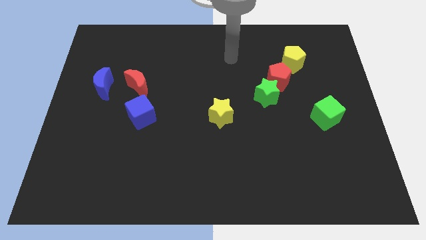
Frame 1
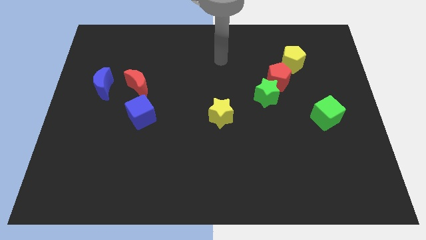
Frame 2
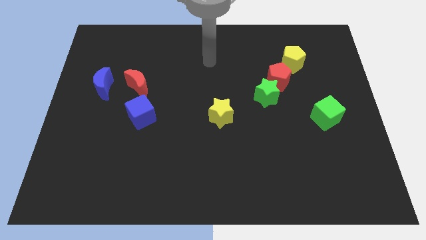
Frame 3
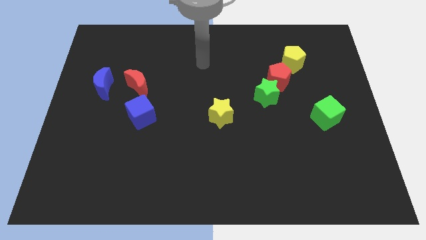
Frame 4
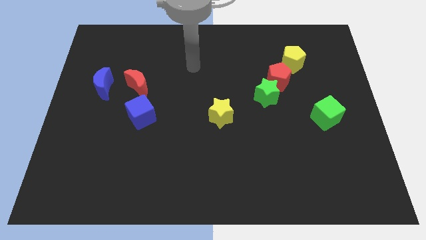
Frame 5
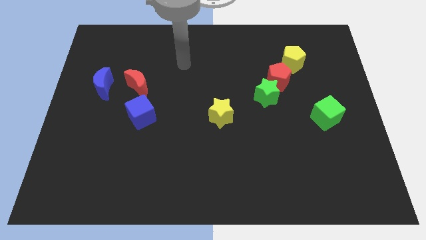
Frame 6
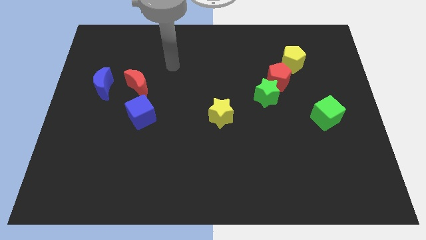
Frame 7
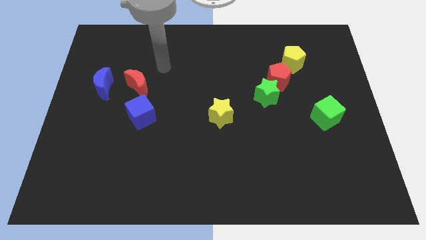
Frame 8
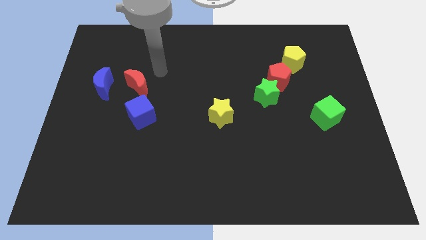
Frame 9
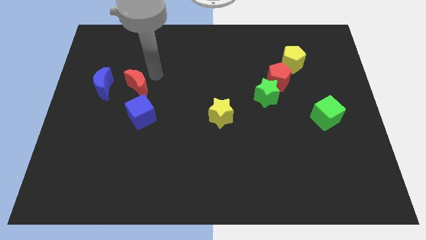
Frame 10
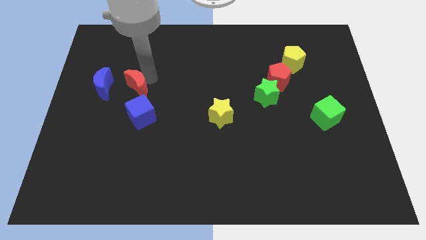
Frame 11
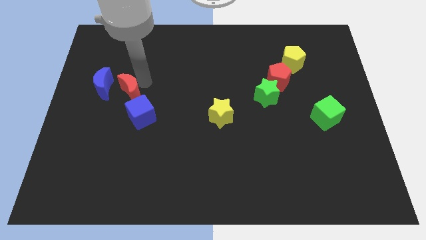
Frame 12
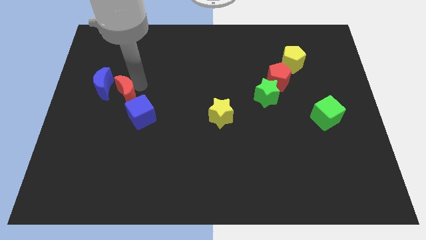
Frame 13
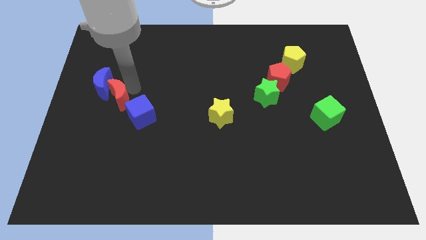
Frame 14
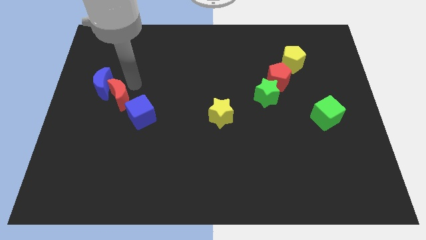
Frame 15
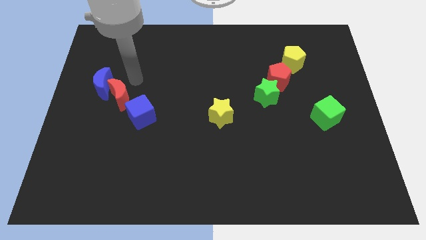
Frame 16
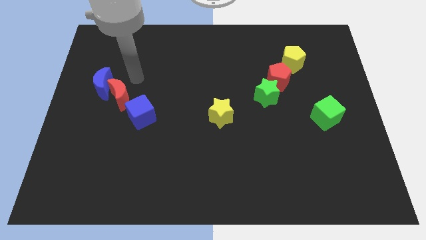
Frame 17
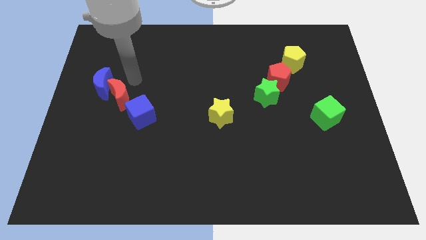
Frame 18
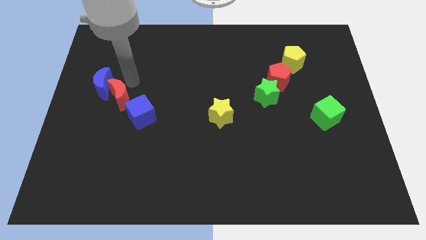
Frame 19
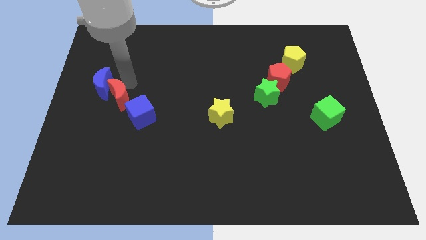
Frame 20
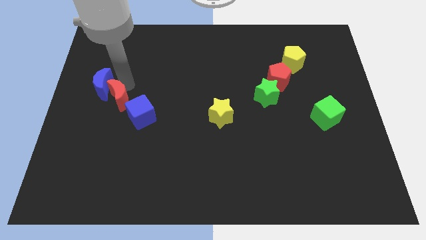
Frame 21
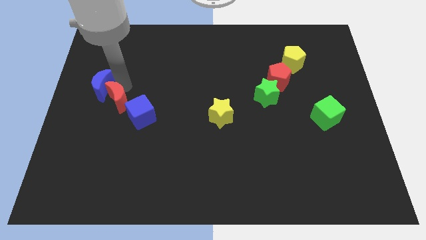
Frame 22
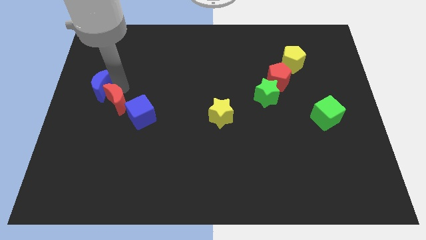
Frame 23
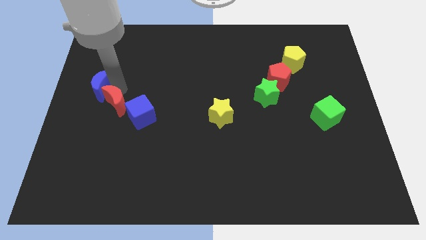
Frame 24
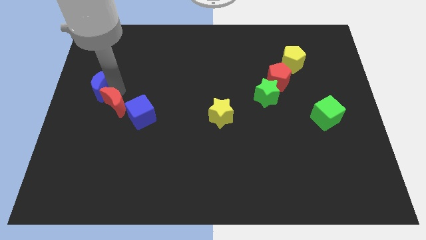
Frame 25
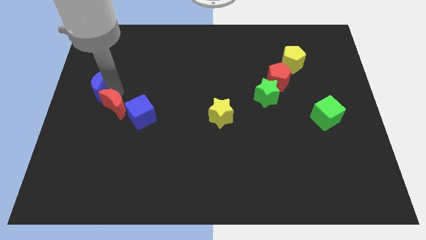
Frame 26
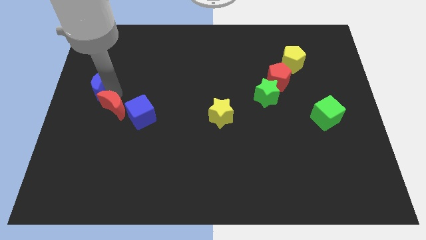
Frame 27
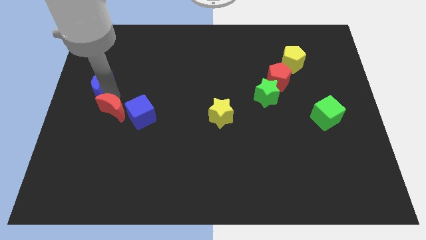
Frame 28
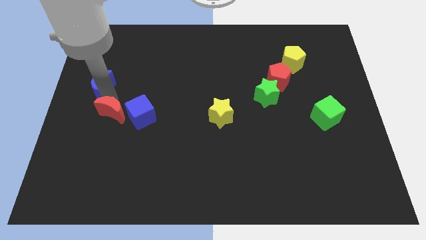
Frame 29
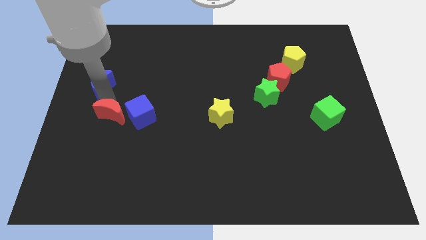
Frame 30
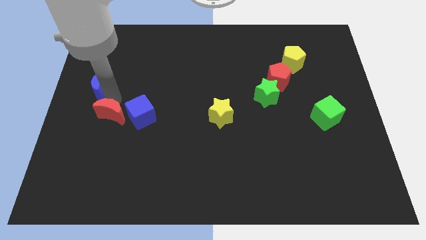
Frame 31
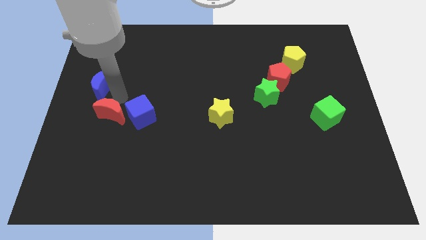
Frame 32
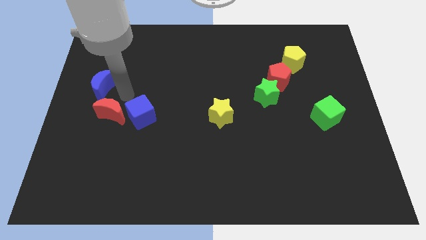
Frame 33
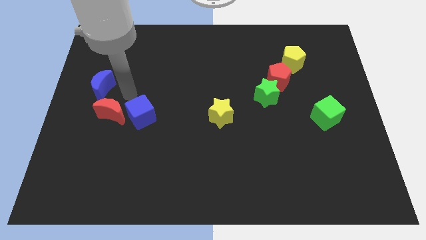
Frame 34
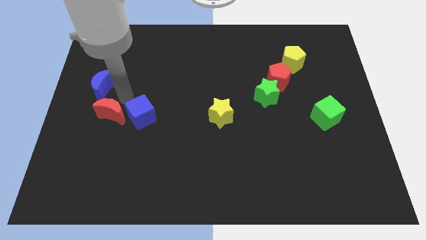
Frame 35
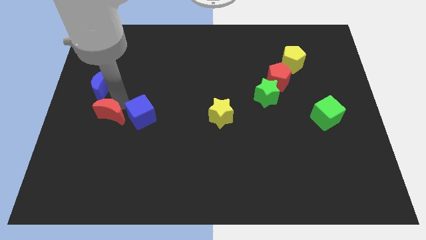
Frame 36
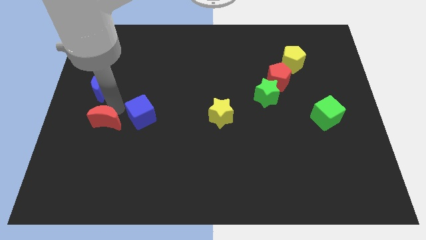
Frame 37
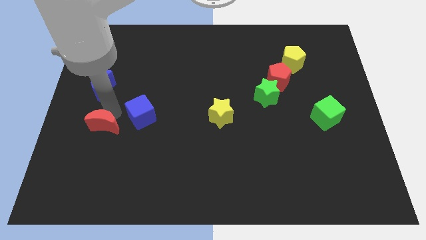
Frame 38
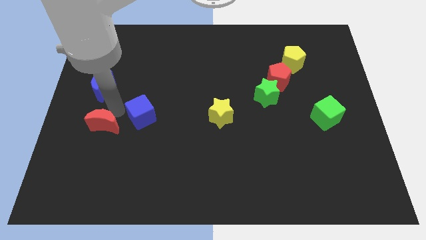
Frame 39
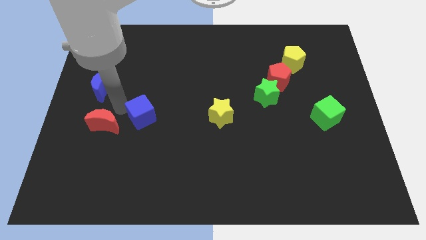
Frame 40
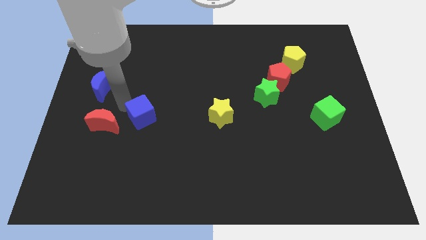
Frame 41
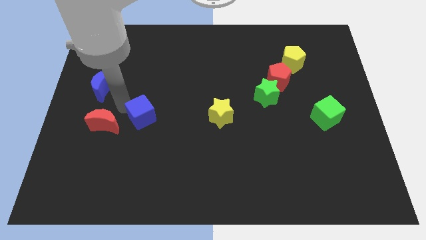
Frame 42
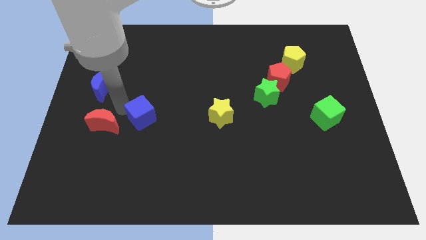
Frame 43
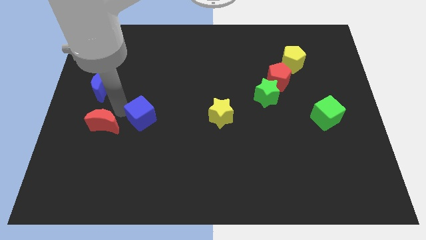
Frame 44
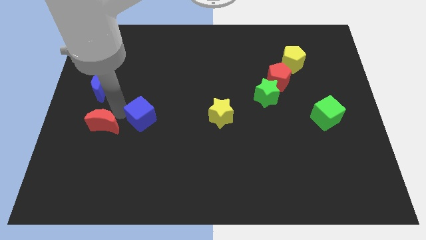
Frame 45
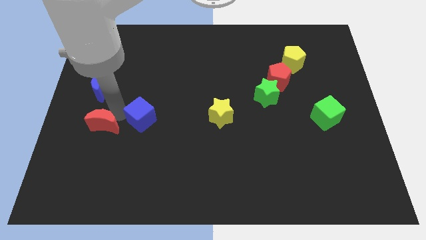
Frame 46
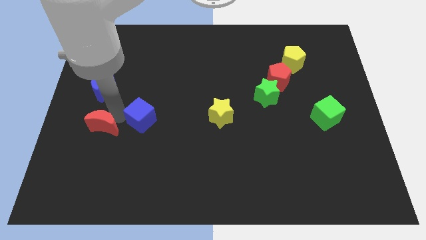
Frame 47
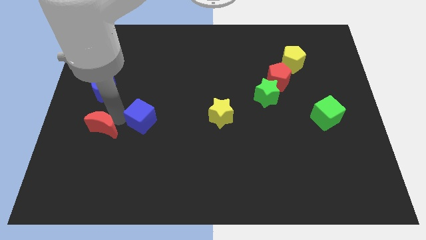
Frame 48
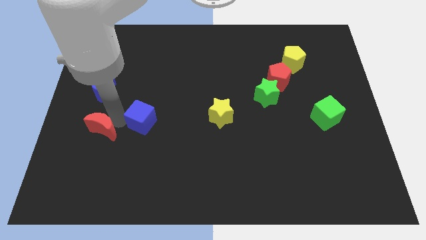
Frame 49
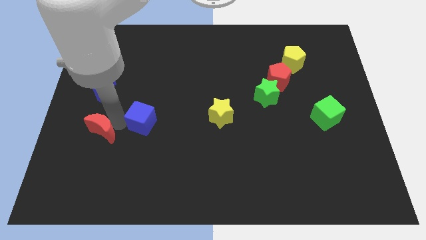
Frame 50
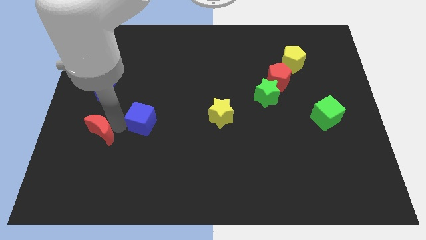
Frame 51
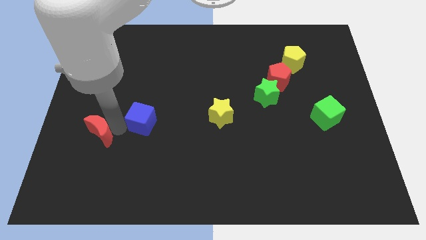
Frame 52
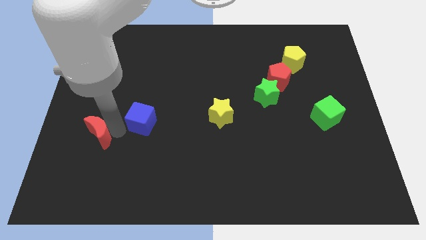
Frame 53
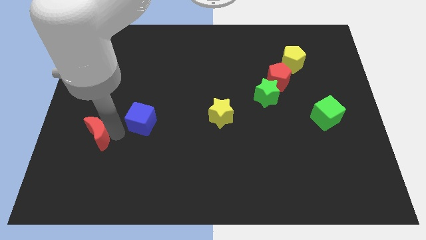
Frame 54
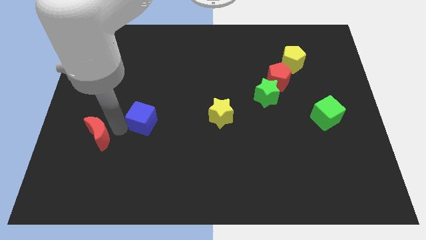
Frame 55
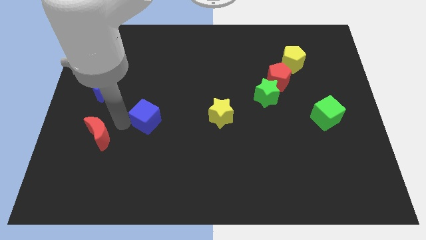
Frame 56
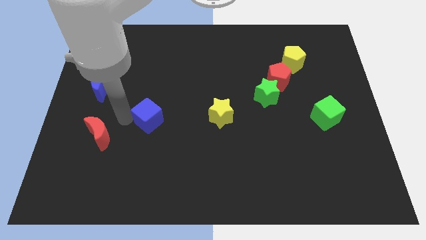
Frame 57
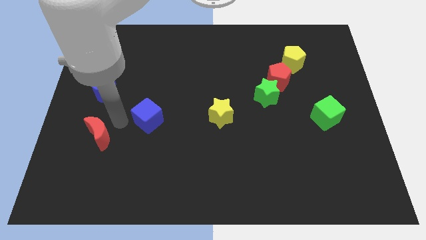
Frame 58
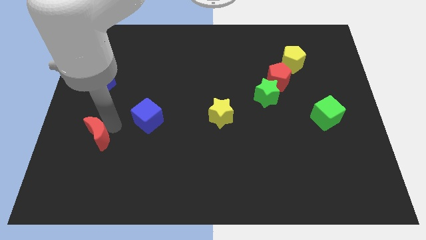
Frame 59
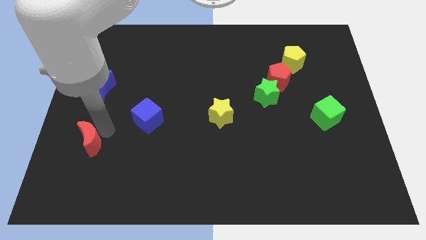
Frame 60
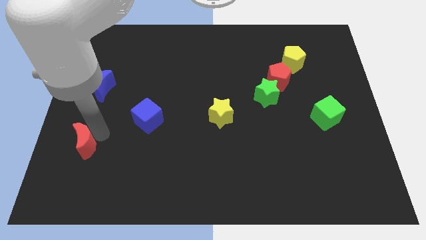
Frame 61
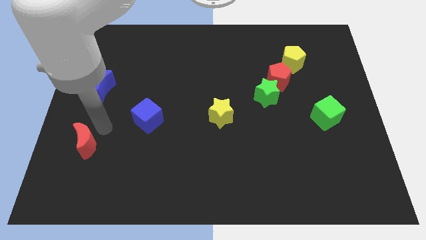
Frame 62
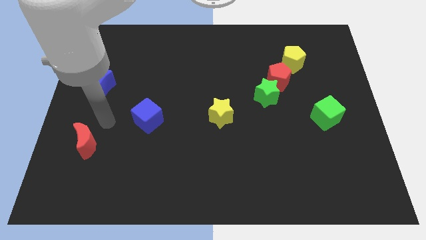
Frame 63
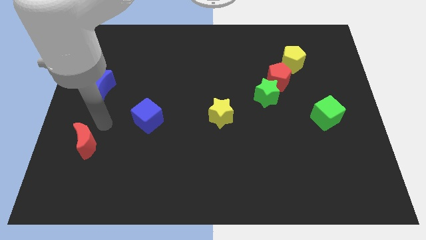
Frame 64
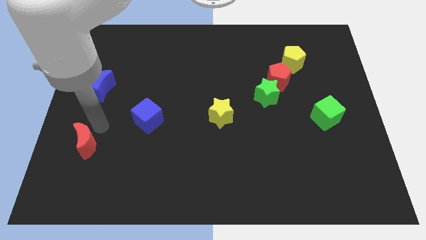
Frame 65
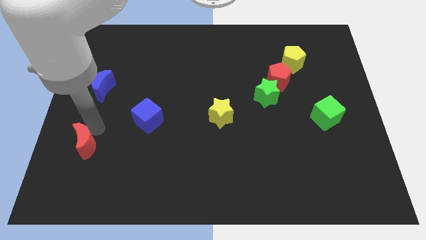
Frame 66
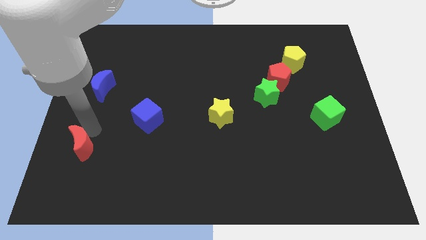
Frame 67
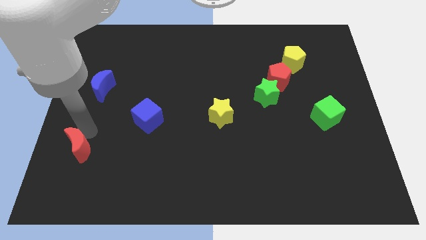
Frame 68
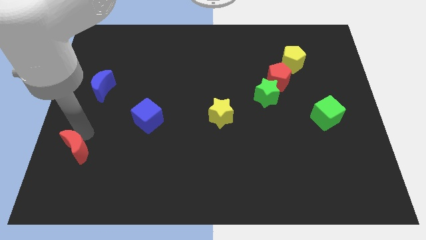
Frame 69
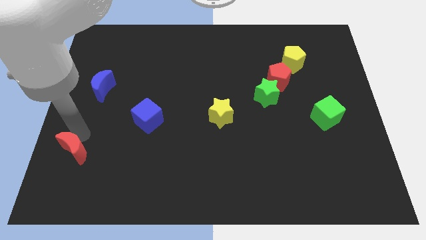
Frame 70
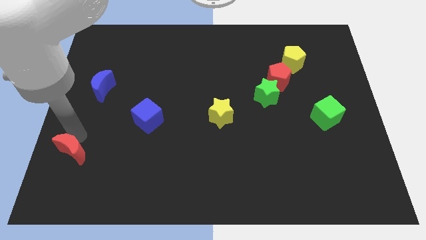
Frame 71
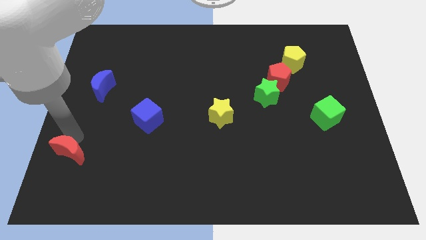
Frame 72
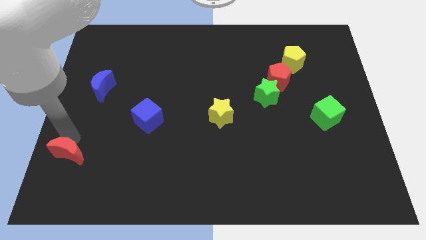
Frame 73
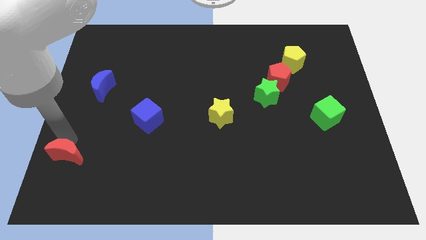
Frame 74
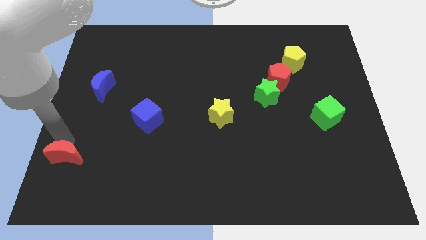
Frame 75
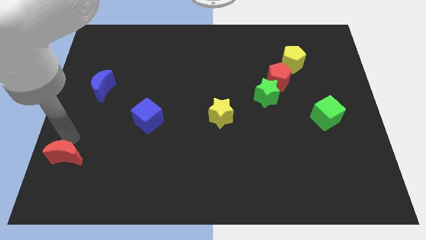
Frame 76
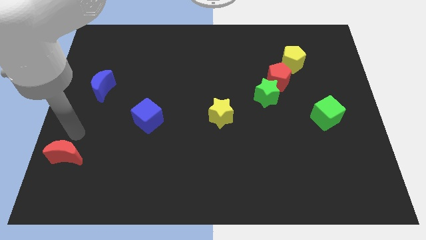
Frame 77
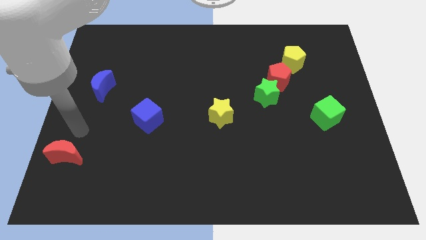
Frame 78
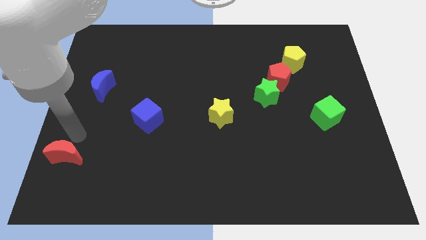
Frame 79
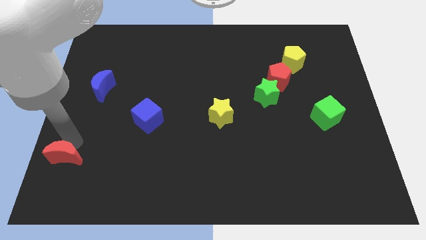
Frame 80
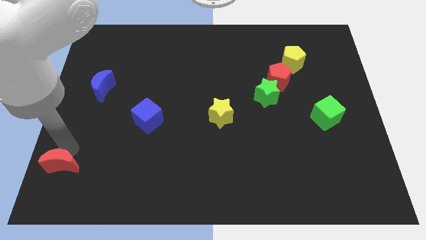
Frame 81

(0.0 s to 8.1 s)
put the red moon to the lower left corner
